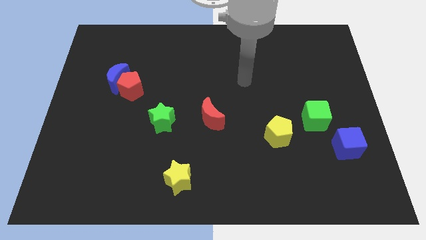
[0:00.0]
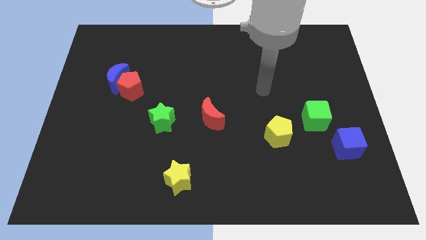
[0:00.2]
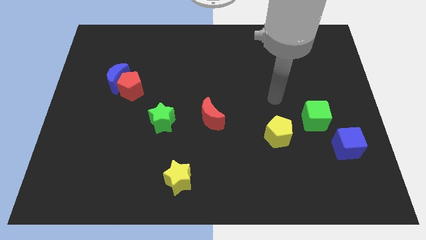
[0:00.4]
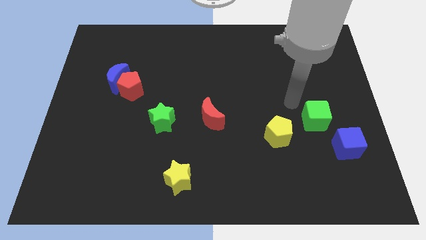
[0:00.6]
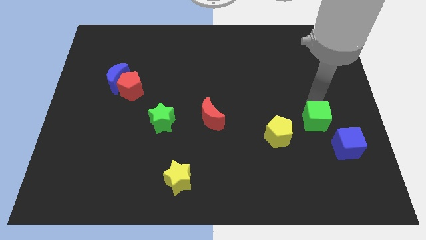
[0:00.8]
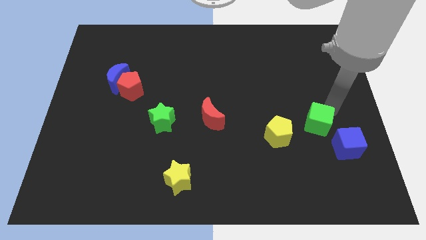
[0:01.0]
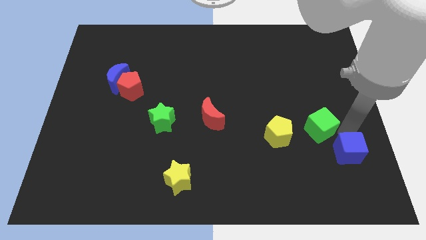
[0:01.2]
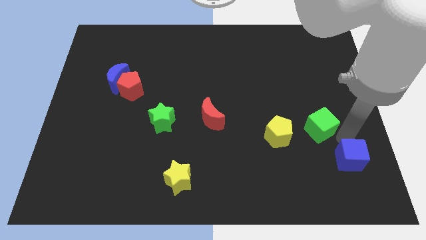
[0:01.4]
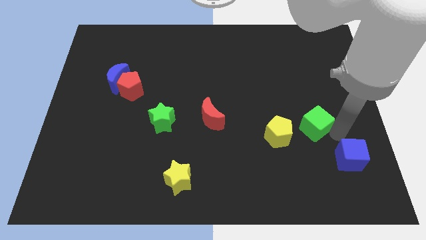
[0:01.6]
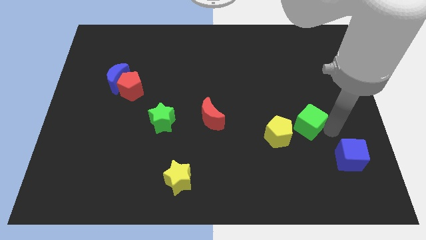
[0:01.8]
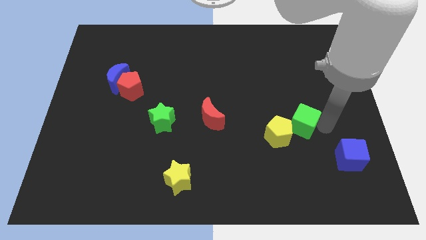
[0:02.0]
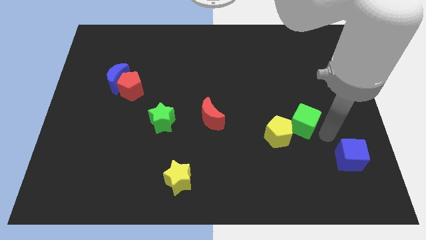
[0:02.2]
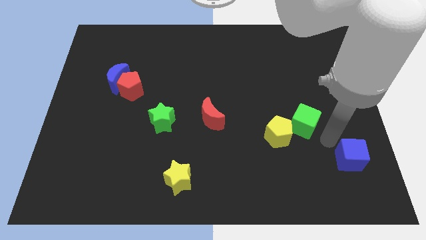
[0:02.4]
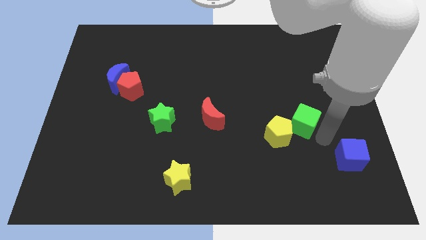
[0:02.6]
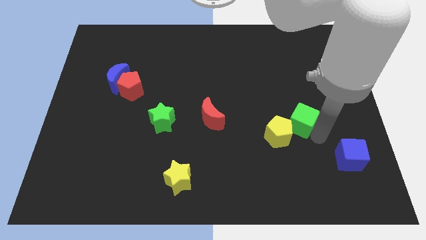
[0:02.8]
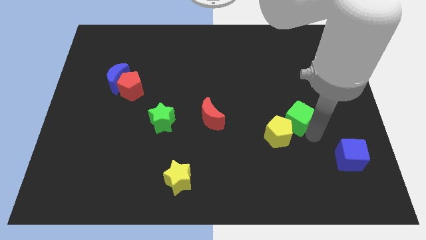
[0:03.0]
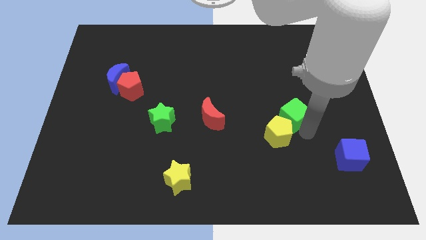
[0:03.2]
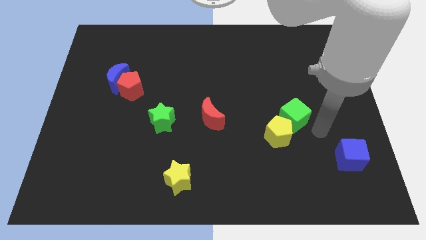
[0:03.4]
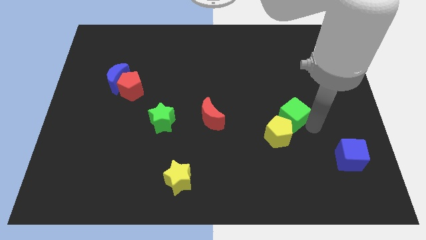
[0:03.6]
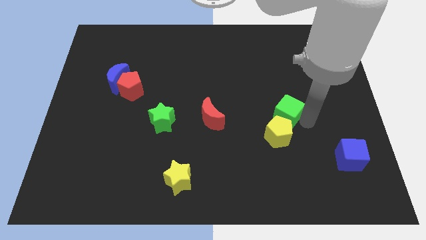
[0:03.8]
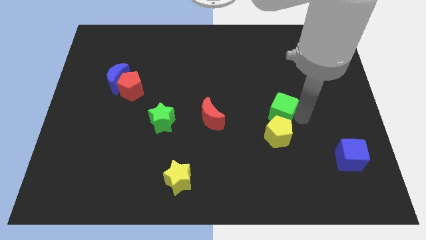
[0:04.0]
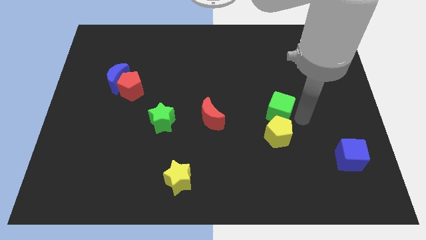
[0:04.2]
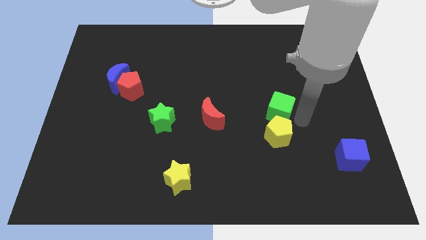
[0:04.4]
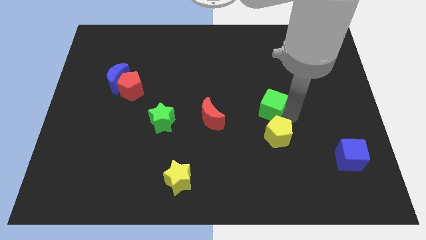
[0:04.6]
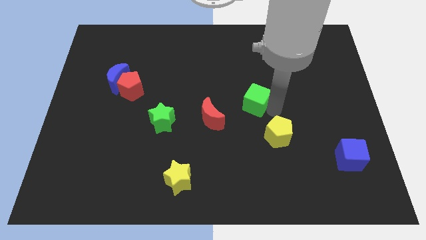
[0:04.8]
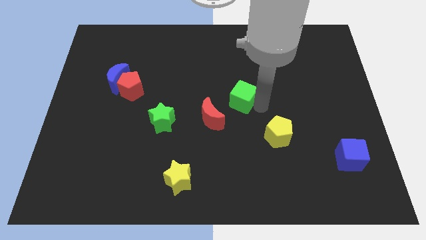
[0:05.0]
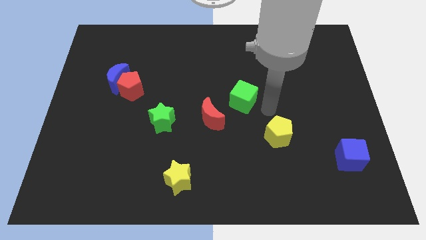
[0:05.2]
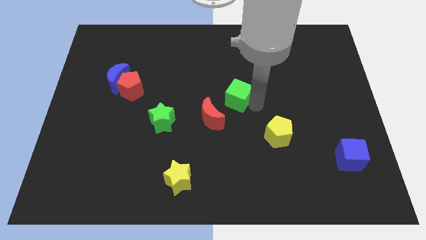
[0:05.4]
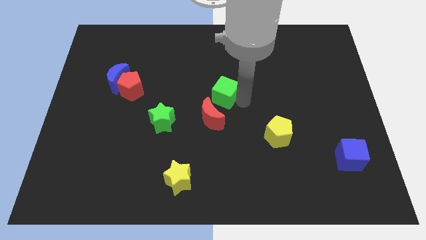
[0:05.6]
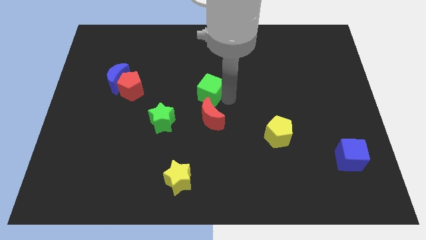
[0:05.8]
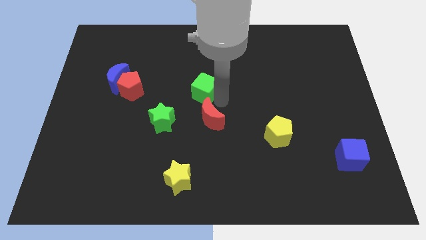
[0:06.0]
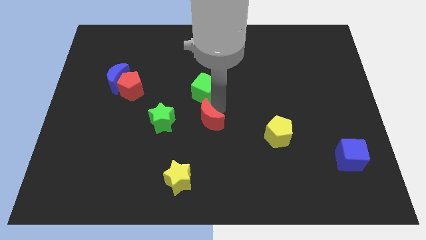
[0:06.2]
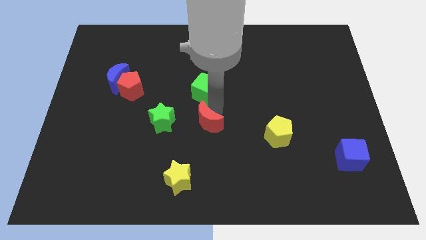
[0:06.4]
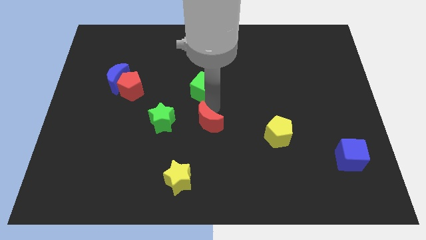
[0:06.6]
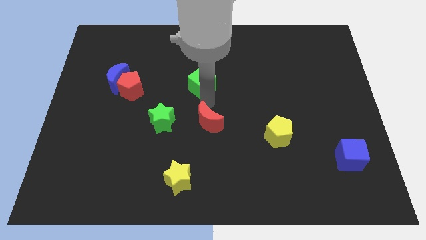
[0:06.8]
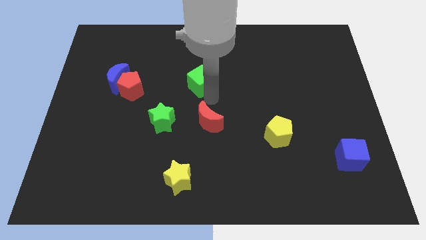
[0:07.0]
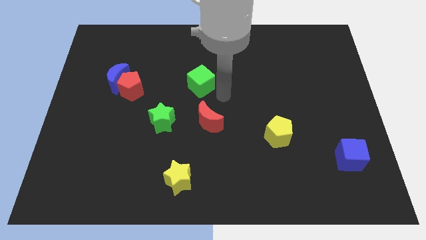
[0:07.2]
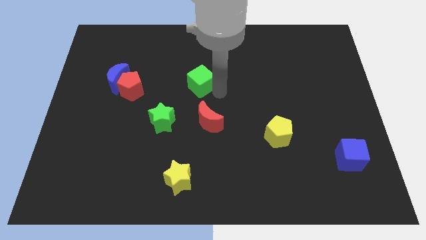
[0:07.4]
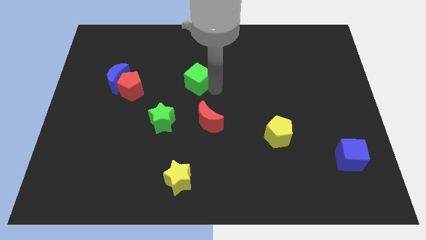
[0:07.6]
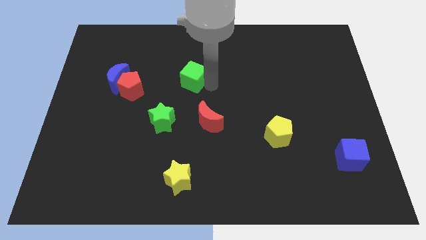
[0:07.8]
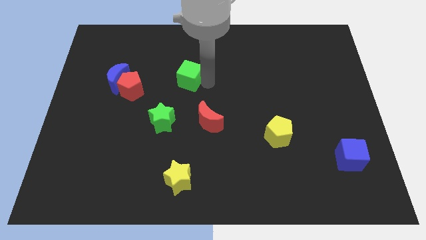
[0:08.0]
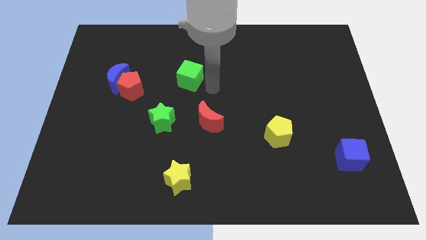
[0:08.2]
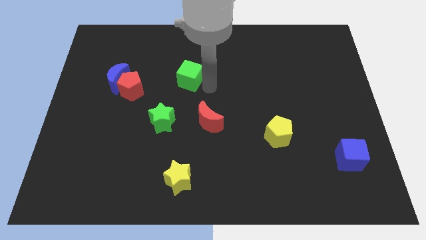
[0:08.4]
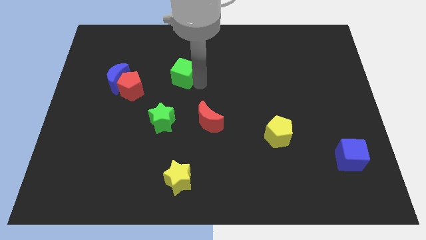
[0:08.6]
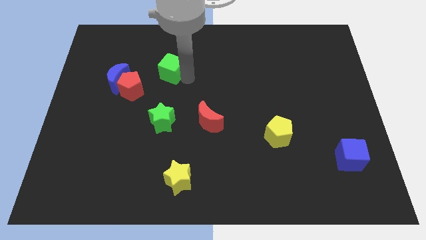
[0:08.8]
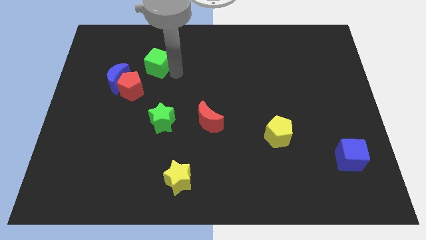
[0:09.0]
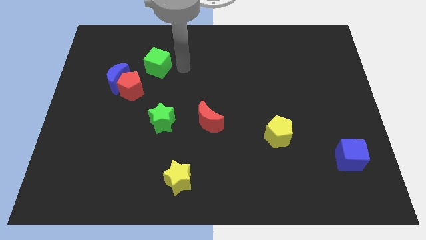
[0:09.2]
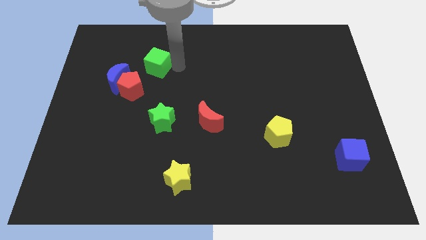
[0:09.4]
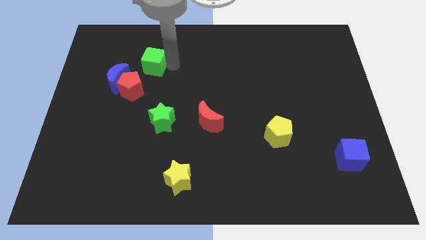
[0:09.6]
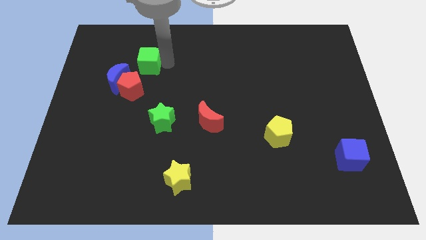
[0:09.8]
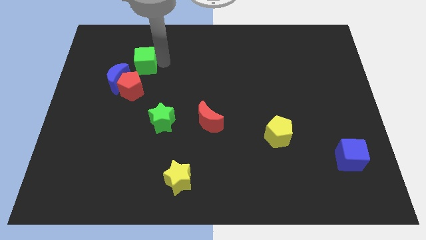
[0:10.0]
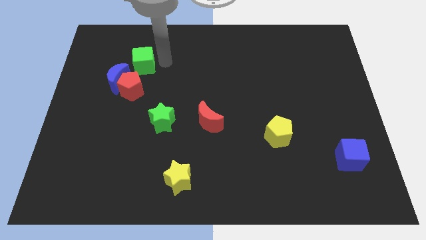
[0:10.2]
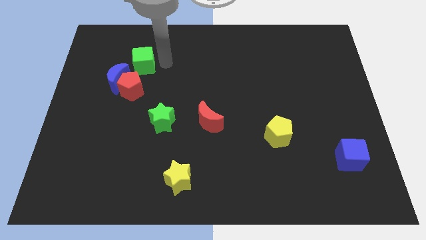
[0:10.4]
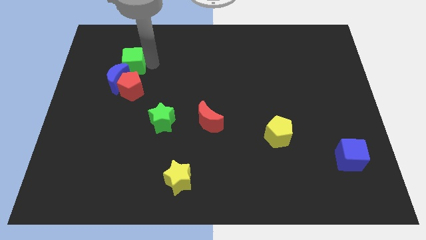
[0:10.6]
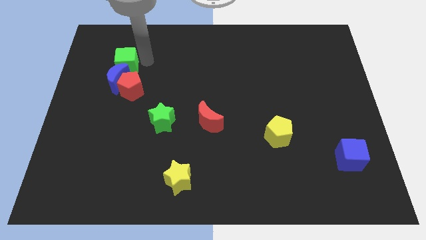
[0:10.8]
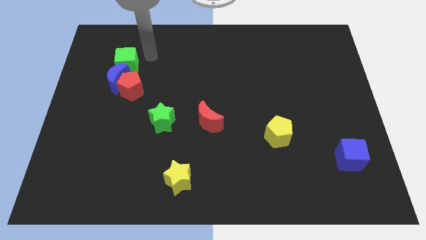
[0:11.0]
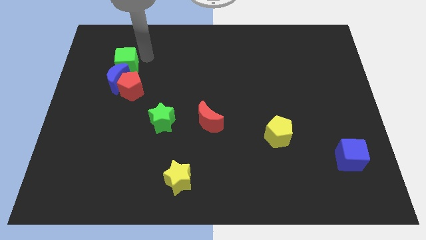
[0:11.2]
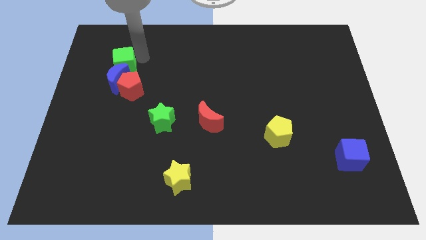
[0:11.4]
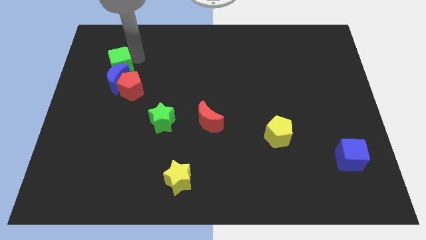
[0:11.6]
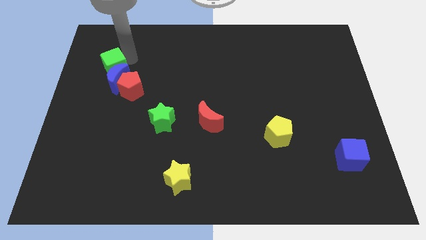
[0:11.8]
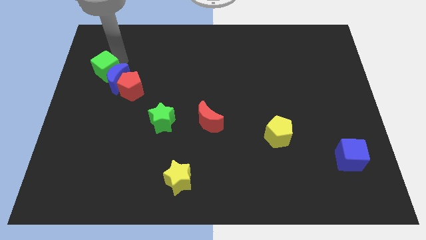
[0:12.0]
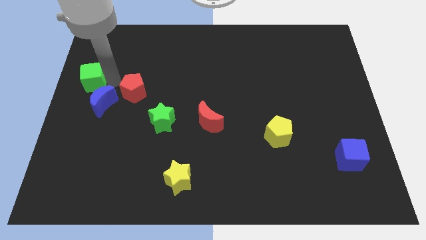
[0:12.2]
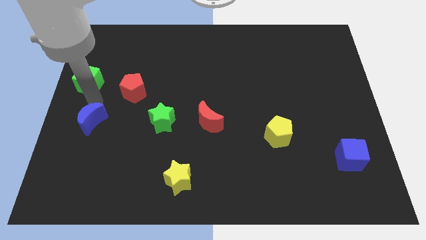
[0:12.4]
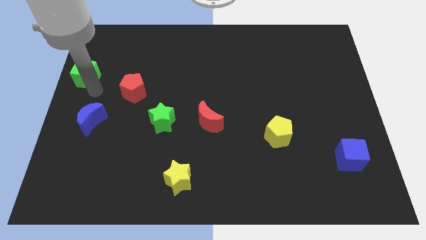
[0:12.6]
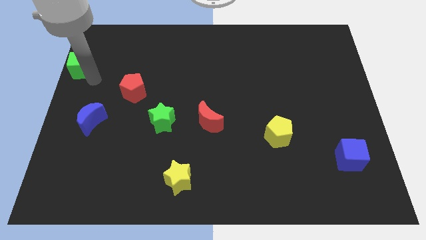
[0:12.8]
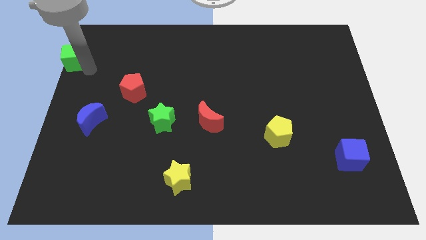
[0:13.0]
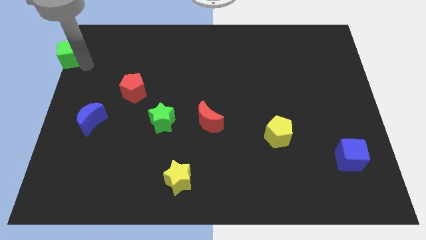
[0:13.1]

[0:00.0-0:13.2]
slide the green cube to the top left corner
